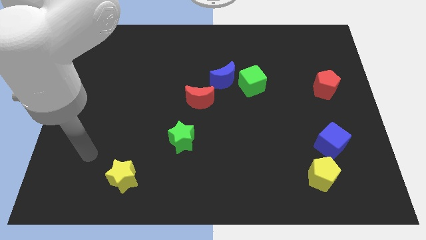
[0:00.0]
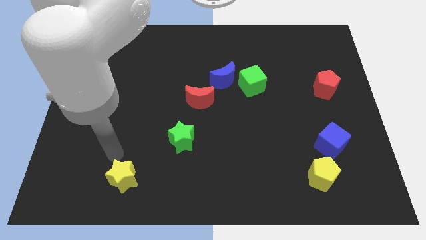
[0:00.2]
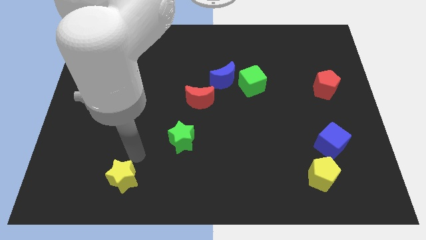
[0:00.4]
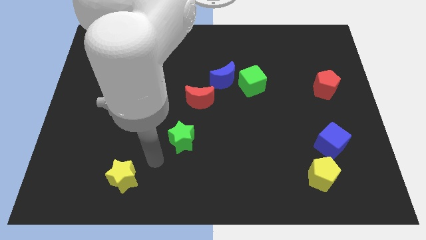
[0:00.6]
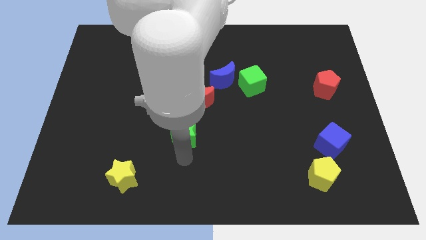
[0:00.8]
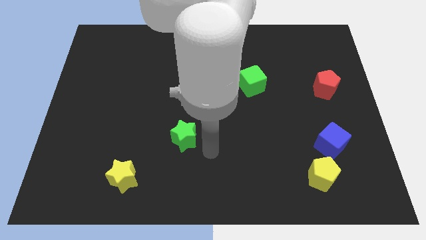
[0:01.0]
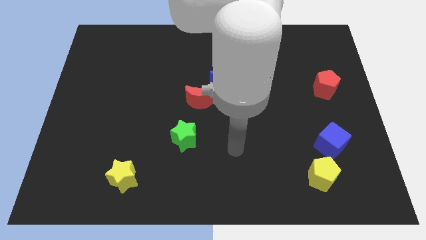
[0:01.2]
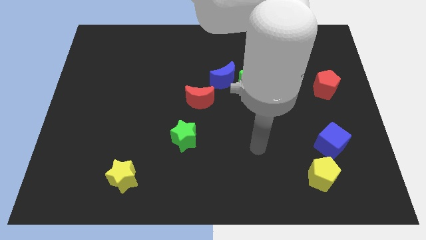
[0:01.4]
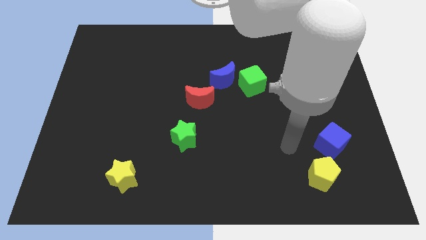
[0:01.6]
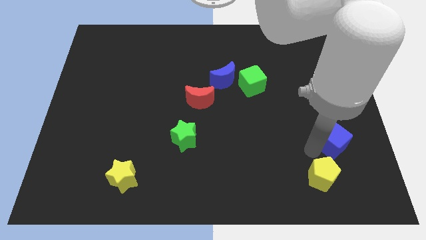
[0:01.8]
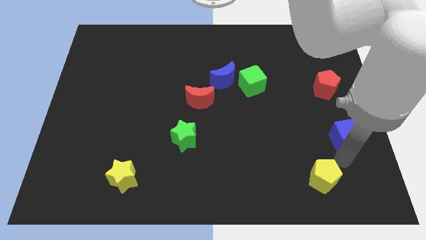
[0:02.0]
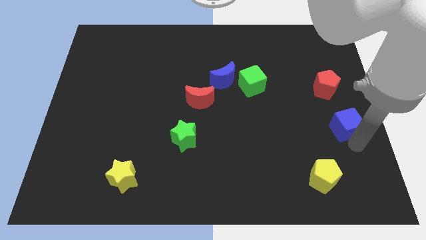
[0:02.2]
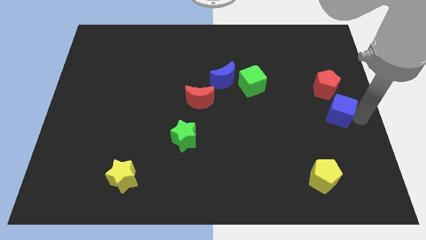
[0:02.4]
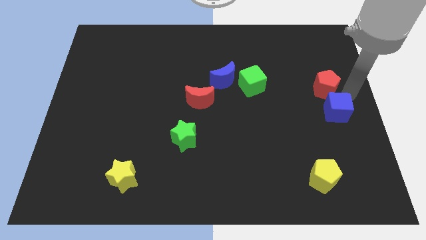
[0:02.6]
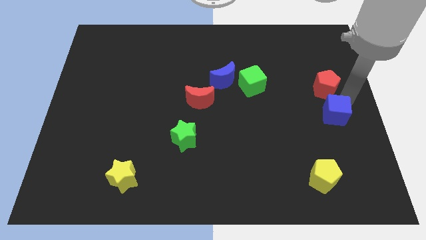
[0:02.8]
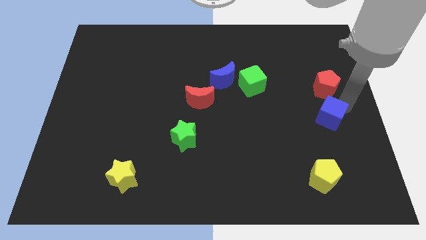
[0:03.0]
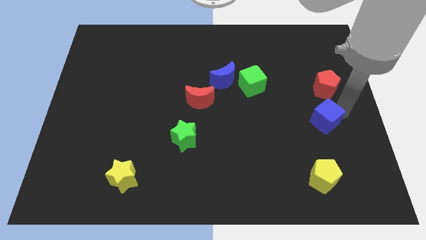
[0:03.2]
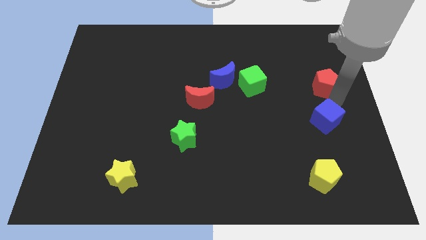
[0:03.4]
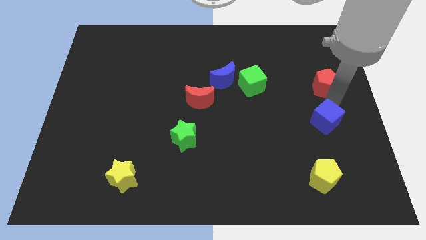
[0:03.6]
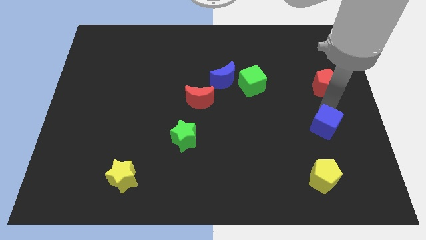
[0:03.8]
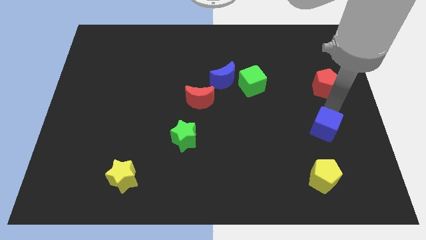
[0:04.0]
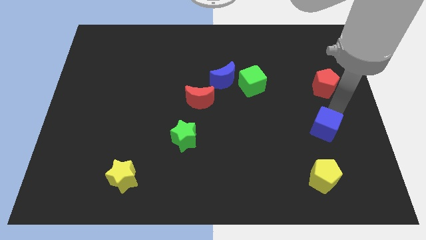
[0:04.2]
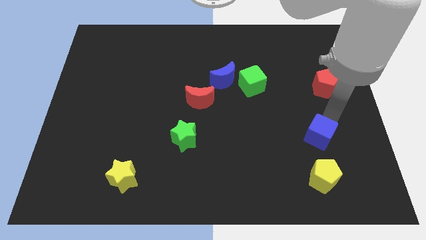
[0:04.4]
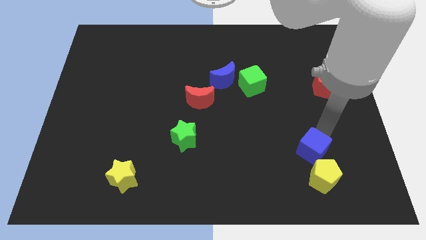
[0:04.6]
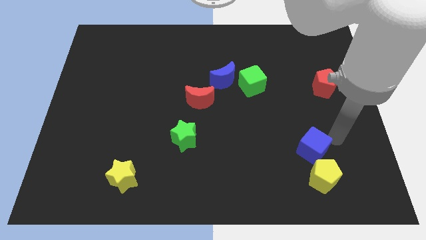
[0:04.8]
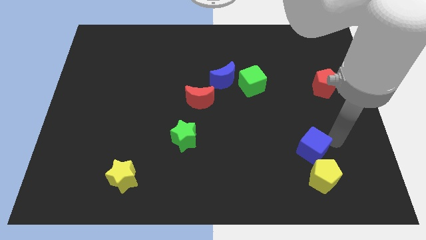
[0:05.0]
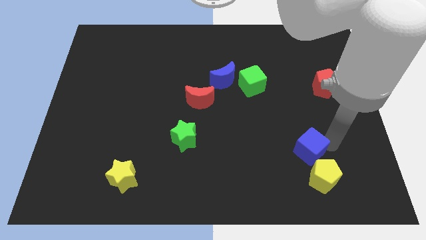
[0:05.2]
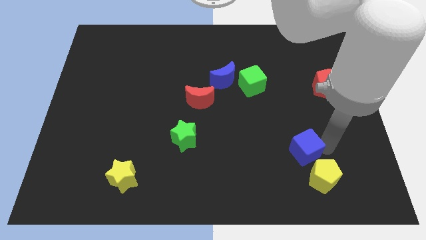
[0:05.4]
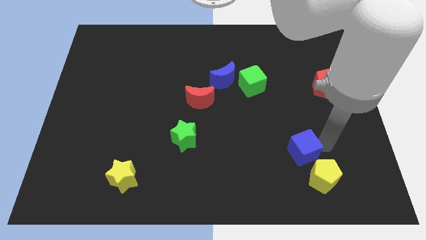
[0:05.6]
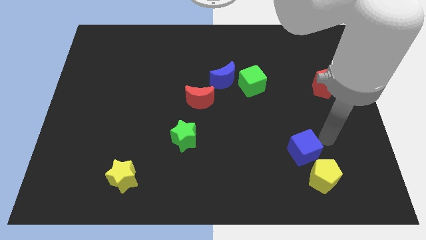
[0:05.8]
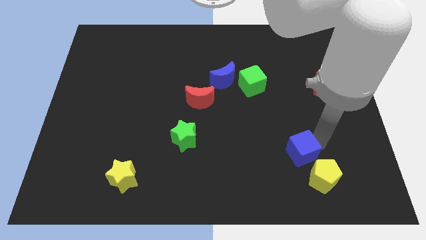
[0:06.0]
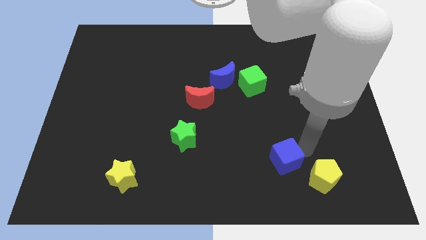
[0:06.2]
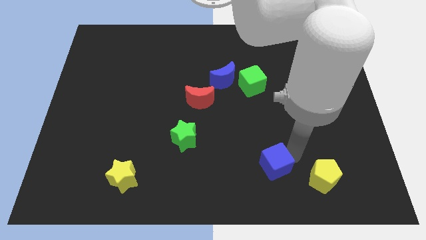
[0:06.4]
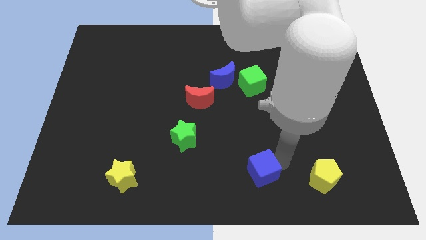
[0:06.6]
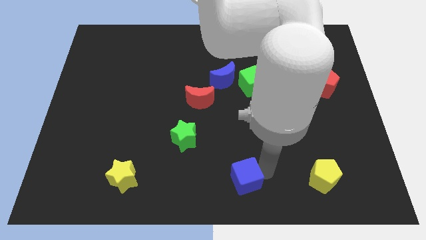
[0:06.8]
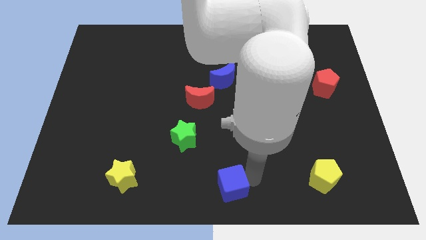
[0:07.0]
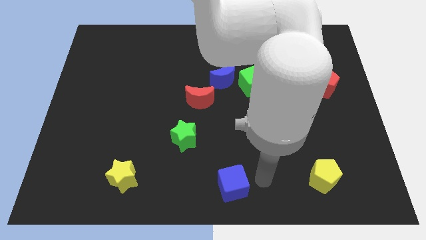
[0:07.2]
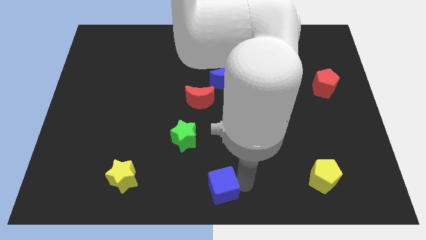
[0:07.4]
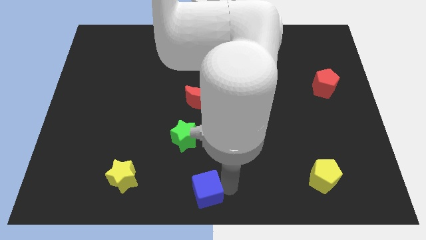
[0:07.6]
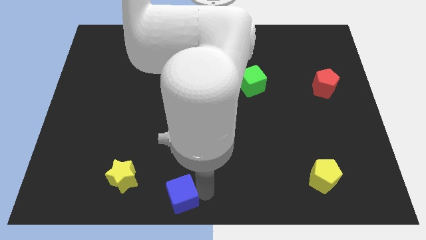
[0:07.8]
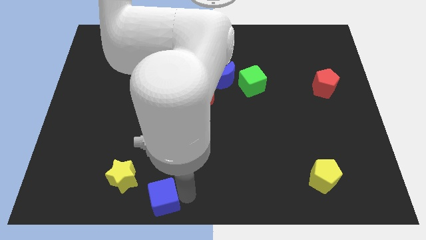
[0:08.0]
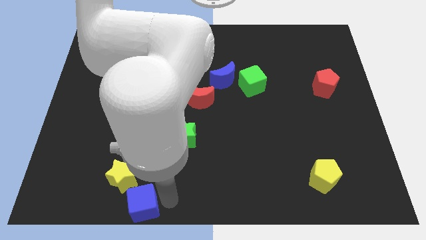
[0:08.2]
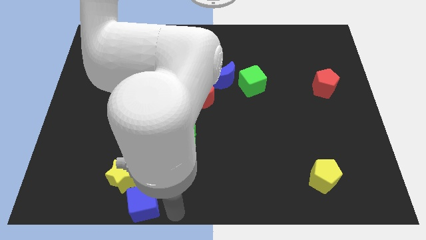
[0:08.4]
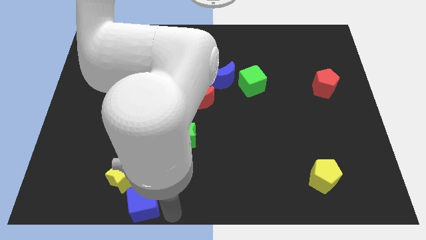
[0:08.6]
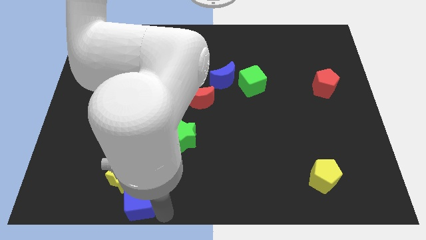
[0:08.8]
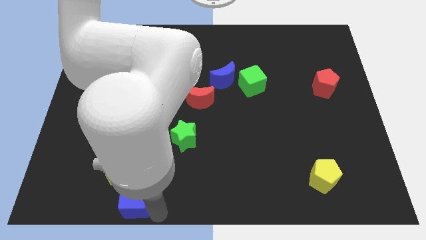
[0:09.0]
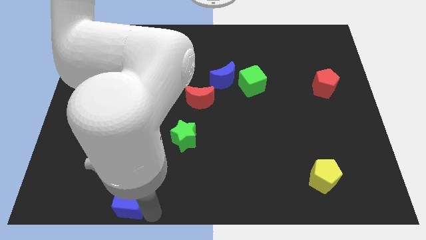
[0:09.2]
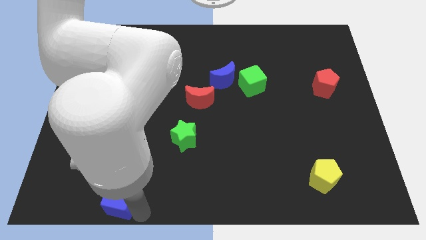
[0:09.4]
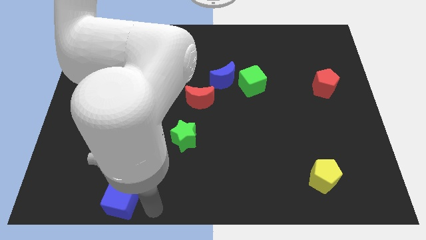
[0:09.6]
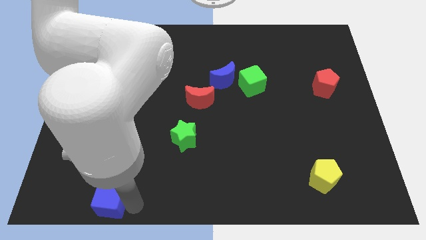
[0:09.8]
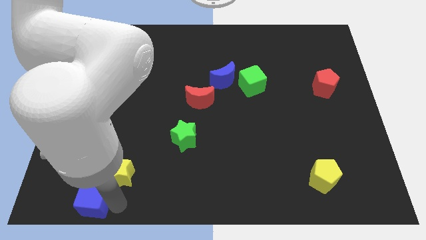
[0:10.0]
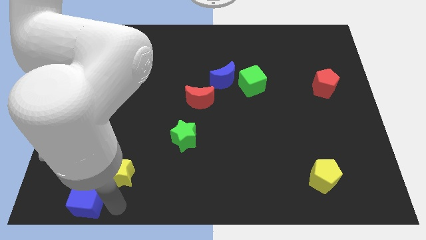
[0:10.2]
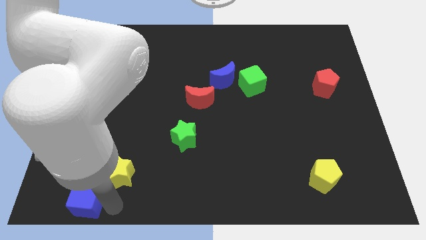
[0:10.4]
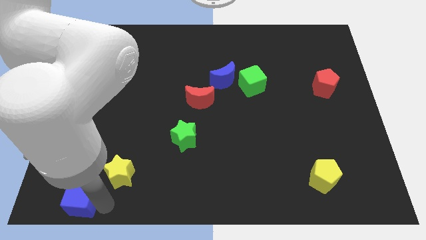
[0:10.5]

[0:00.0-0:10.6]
move the blue cube to the bottom left corner

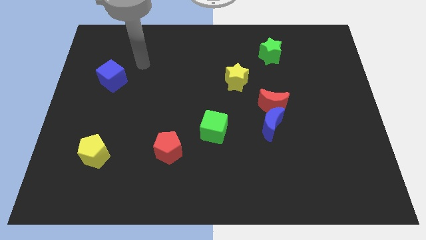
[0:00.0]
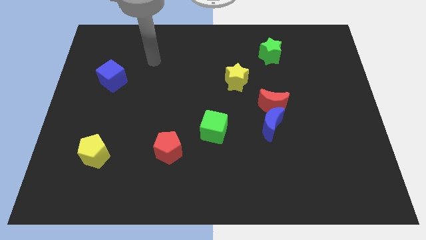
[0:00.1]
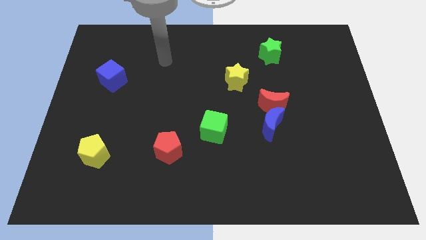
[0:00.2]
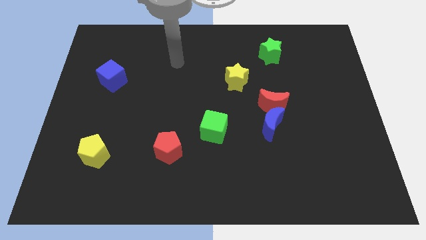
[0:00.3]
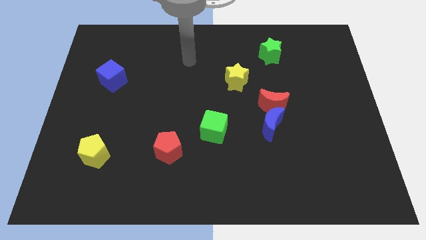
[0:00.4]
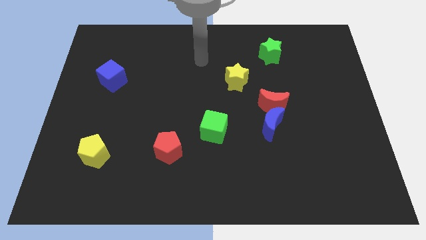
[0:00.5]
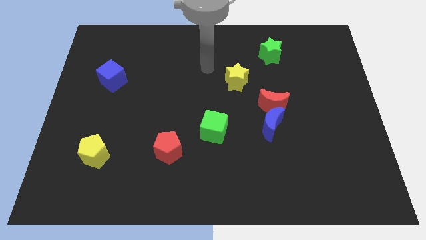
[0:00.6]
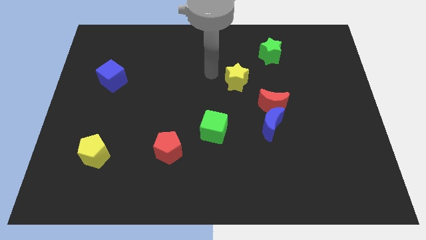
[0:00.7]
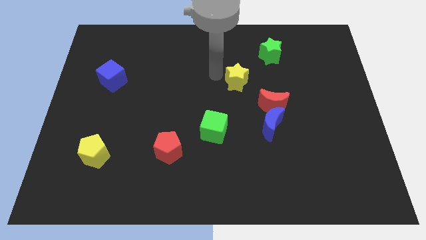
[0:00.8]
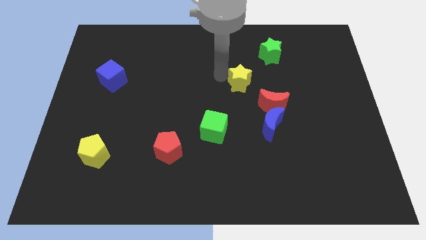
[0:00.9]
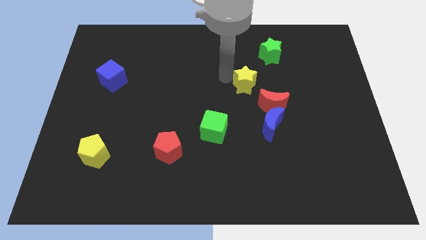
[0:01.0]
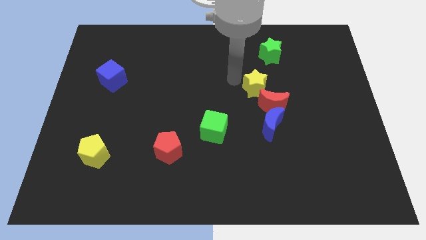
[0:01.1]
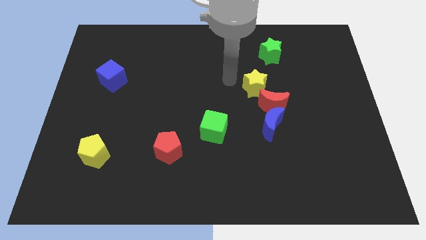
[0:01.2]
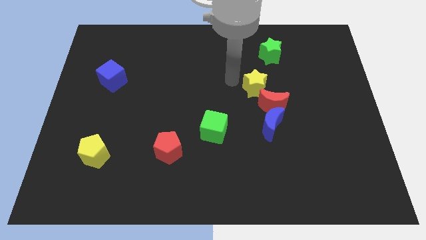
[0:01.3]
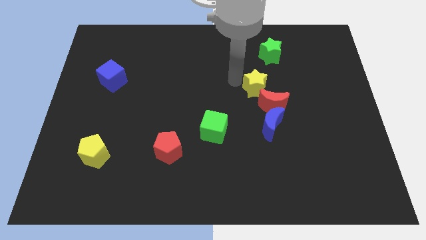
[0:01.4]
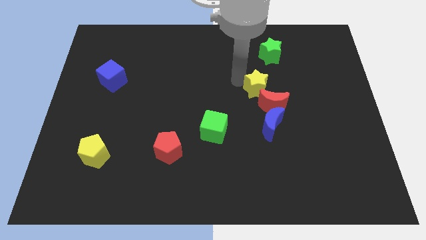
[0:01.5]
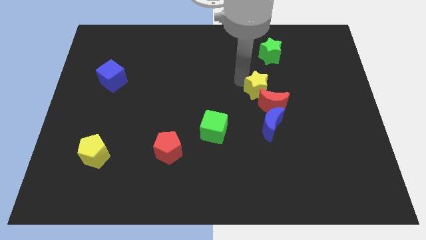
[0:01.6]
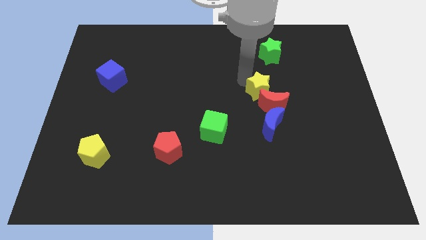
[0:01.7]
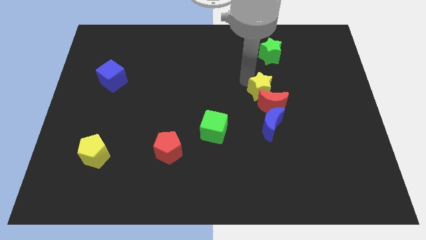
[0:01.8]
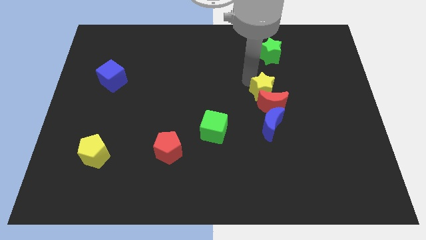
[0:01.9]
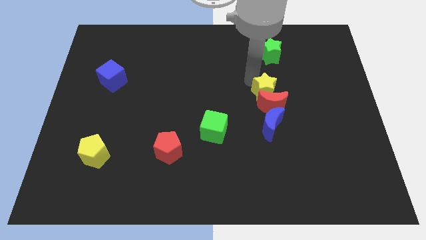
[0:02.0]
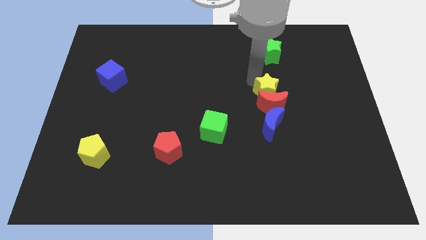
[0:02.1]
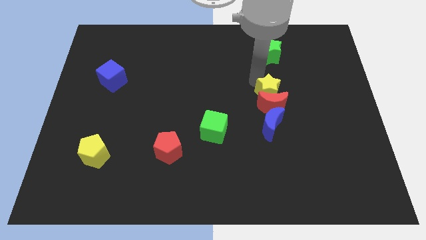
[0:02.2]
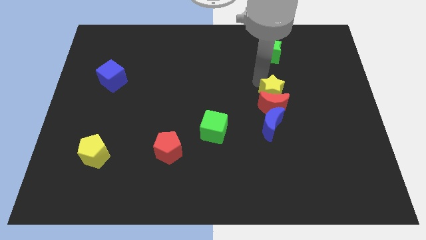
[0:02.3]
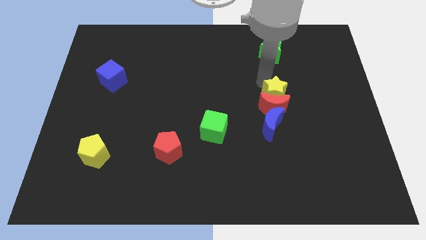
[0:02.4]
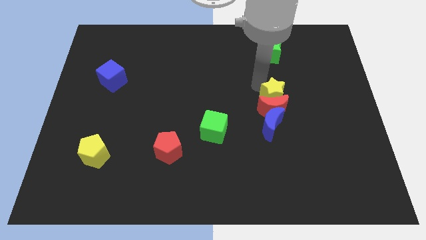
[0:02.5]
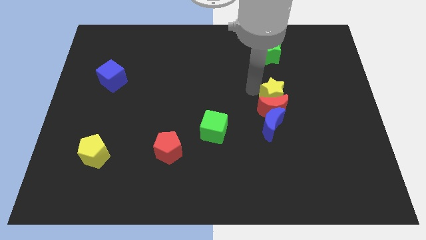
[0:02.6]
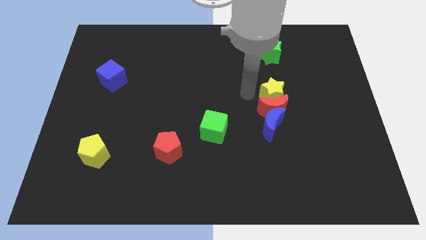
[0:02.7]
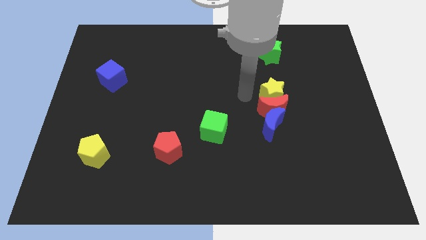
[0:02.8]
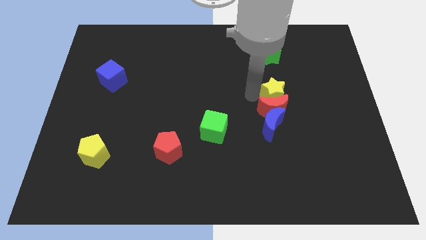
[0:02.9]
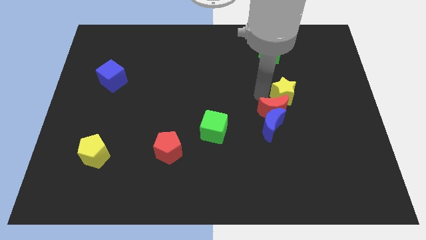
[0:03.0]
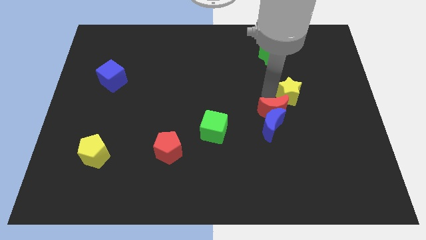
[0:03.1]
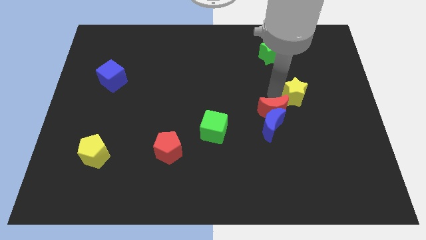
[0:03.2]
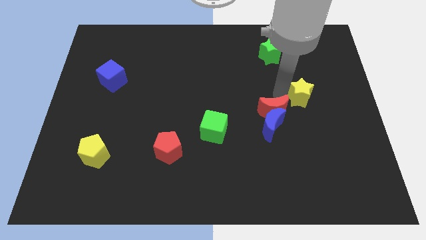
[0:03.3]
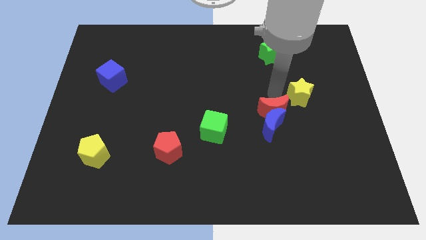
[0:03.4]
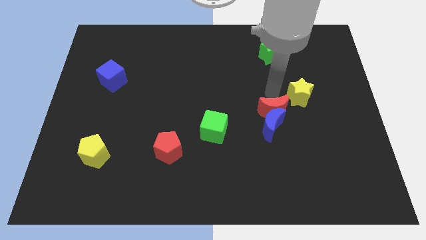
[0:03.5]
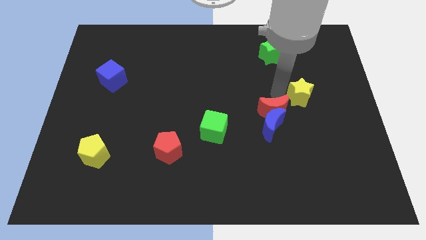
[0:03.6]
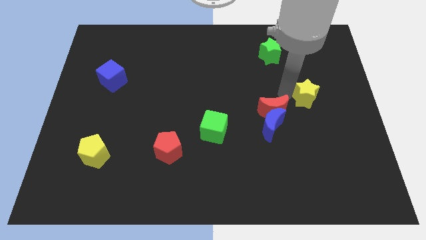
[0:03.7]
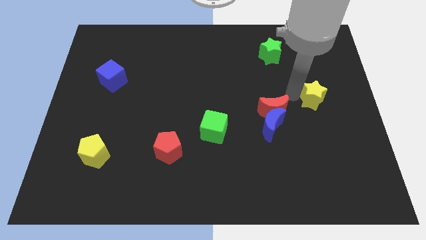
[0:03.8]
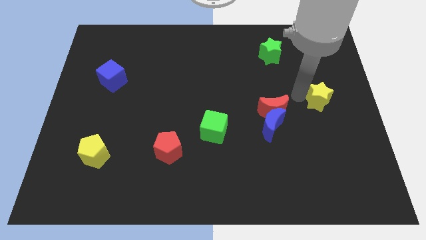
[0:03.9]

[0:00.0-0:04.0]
move the yellow star to the right side
